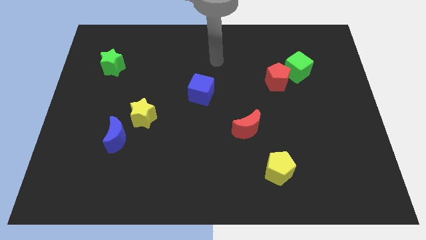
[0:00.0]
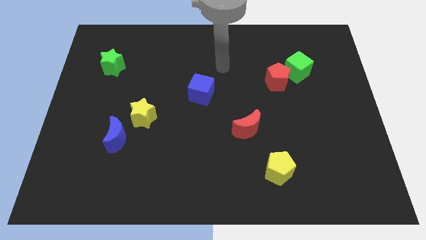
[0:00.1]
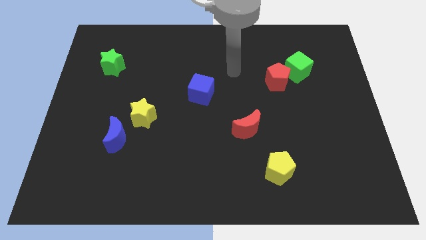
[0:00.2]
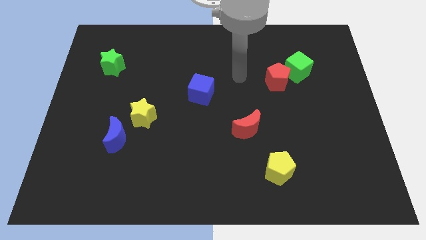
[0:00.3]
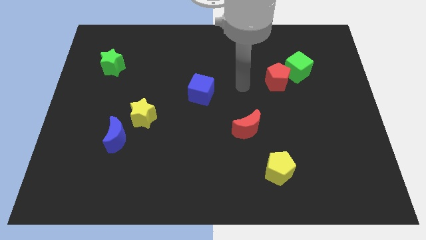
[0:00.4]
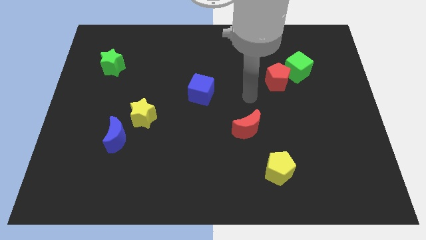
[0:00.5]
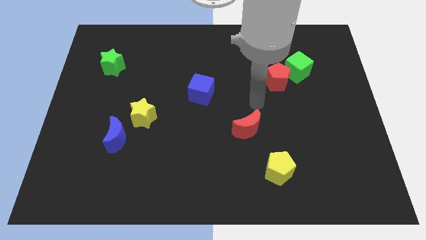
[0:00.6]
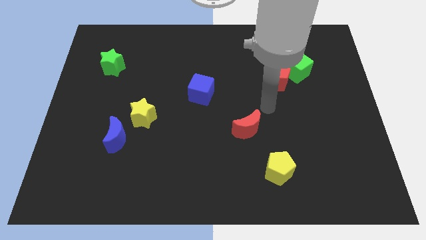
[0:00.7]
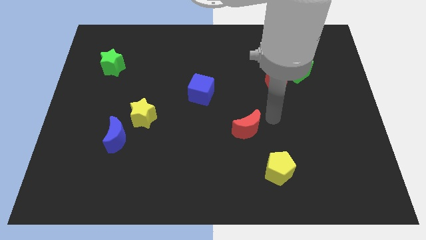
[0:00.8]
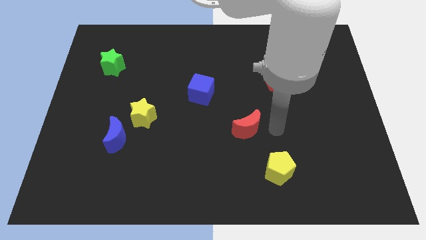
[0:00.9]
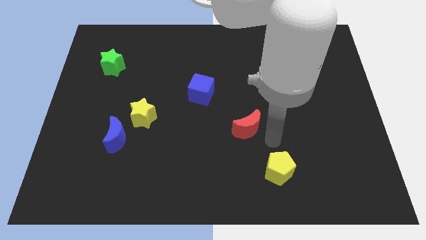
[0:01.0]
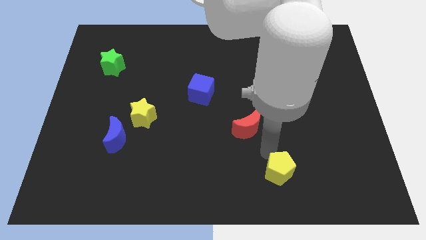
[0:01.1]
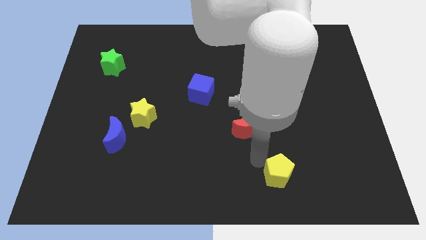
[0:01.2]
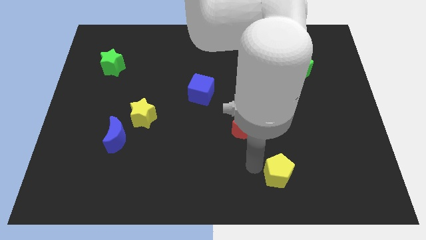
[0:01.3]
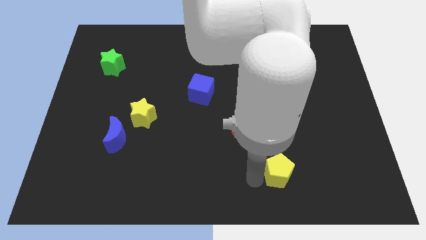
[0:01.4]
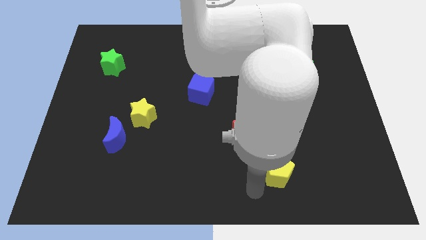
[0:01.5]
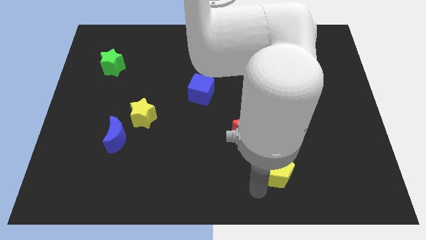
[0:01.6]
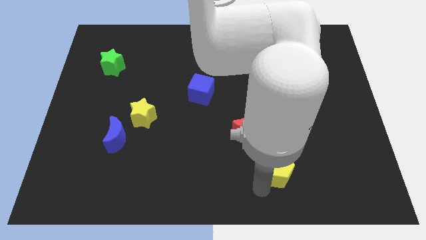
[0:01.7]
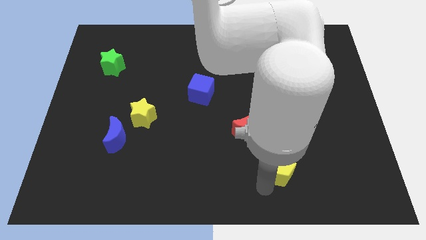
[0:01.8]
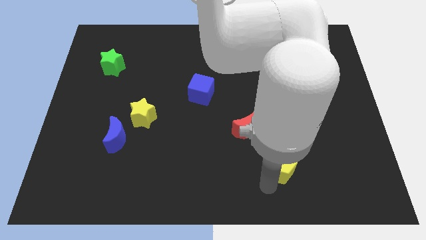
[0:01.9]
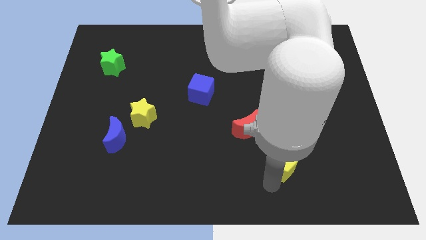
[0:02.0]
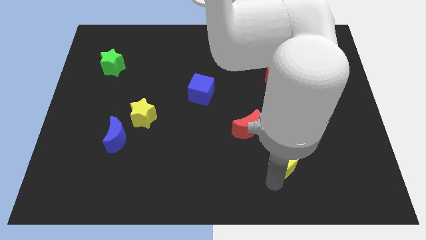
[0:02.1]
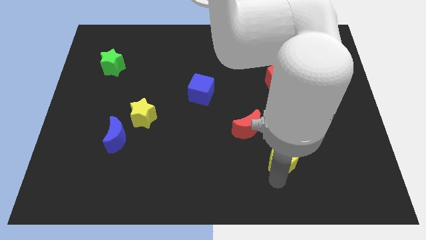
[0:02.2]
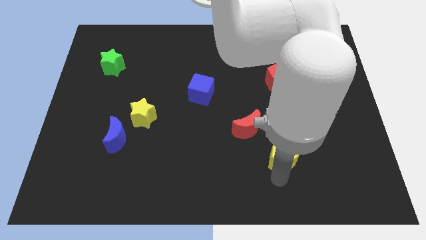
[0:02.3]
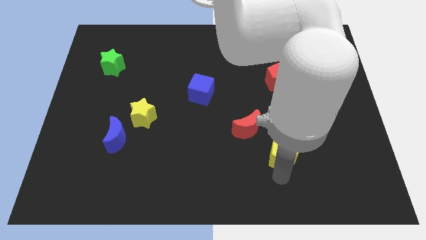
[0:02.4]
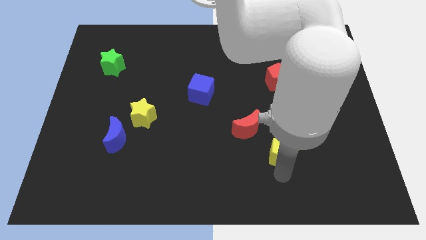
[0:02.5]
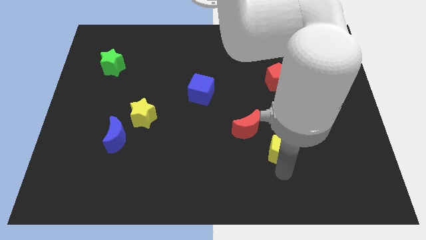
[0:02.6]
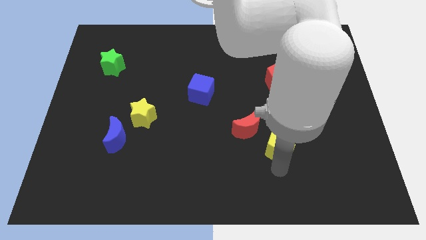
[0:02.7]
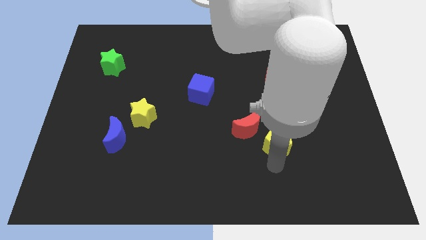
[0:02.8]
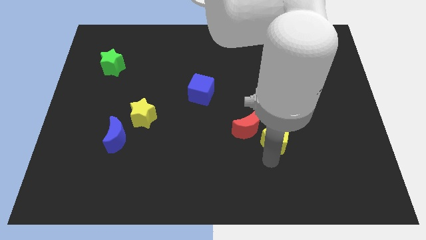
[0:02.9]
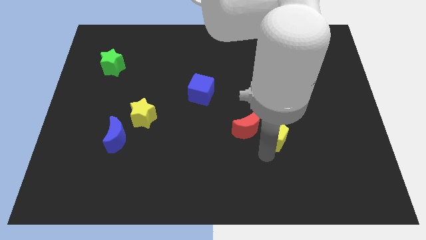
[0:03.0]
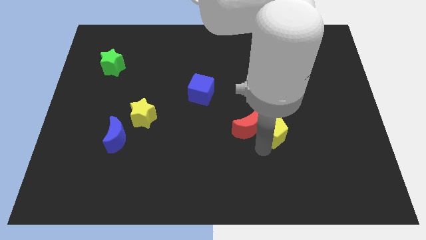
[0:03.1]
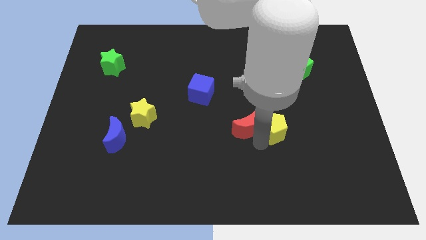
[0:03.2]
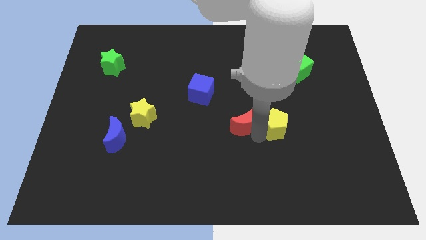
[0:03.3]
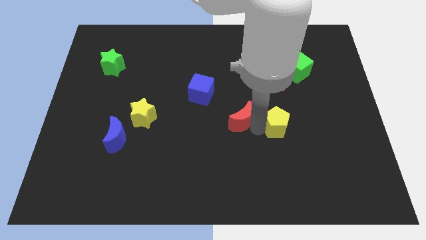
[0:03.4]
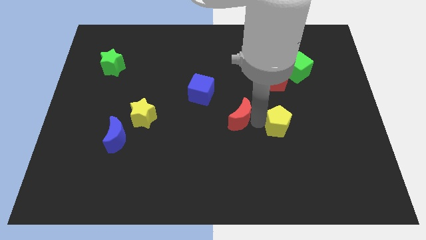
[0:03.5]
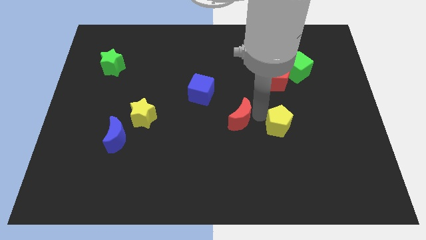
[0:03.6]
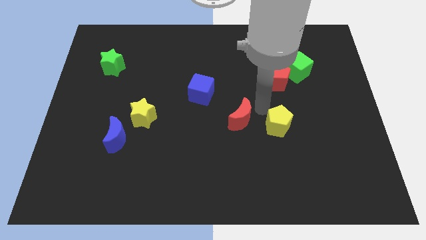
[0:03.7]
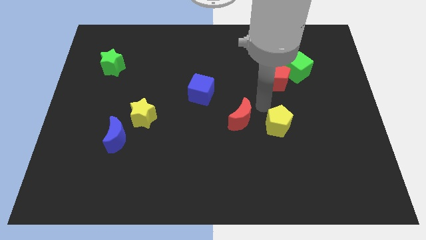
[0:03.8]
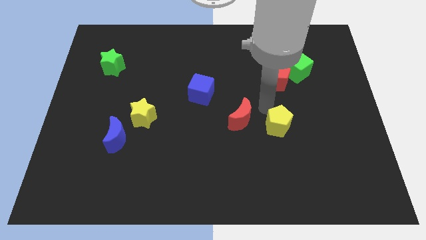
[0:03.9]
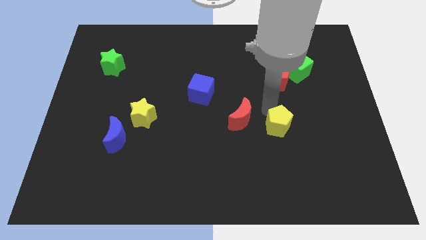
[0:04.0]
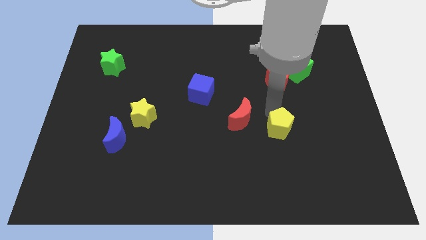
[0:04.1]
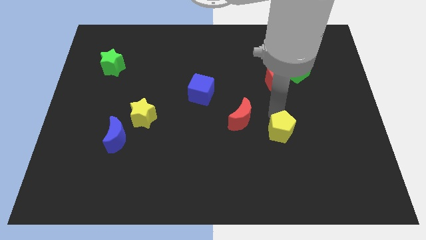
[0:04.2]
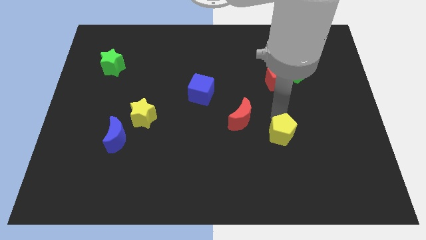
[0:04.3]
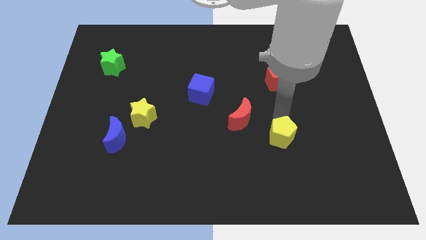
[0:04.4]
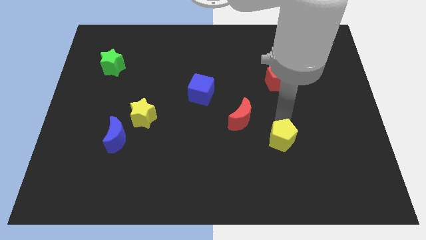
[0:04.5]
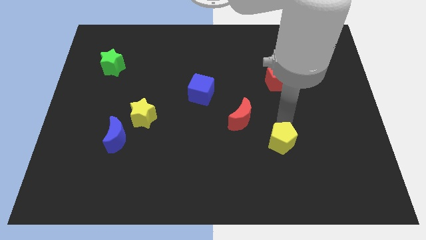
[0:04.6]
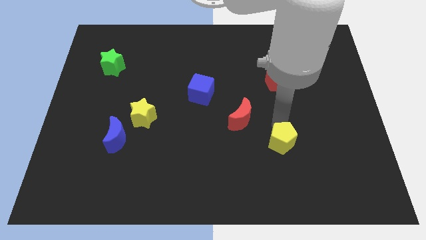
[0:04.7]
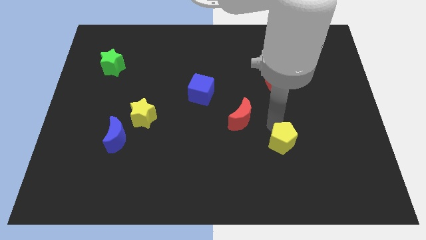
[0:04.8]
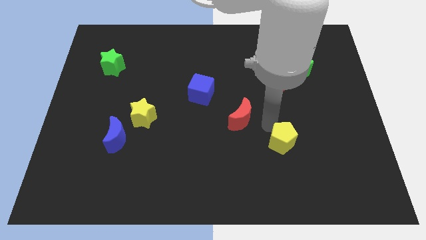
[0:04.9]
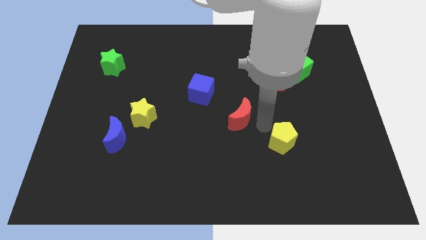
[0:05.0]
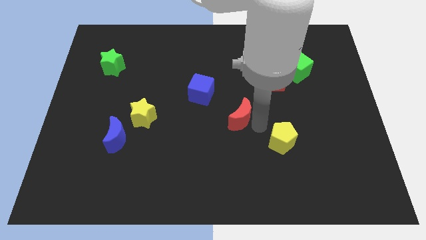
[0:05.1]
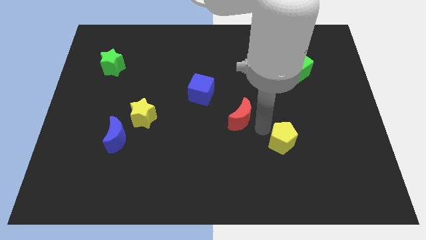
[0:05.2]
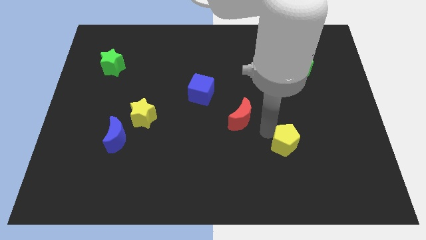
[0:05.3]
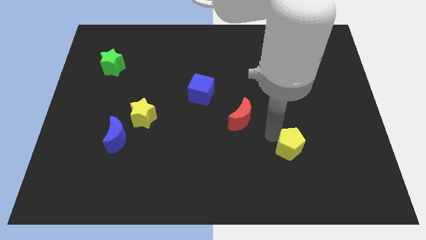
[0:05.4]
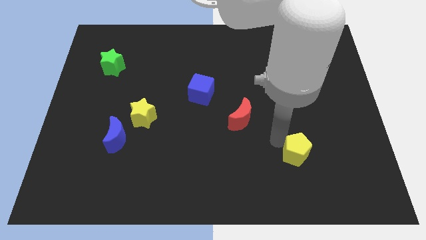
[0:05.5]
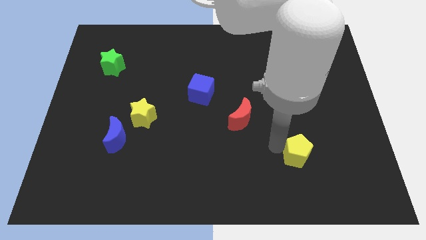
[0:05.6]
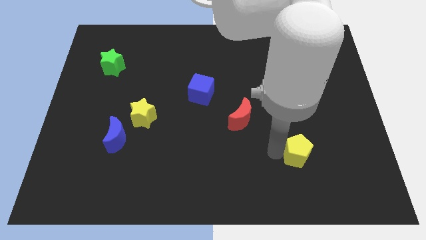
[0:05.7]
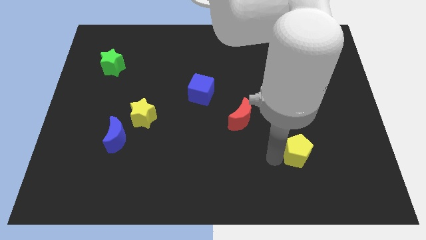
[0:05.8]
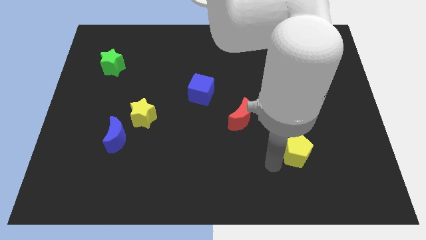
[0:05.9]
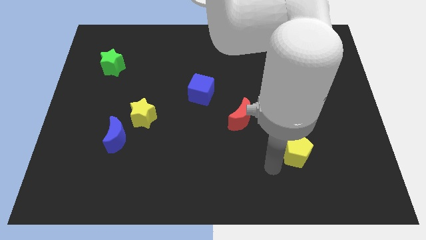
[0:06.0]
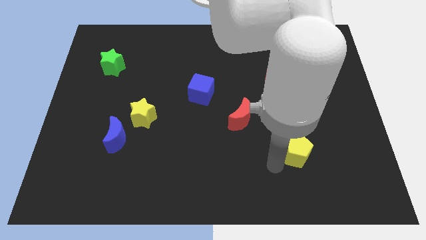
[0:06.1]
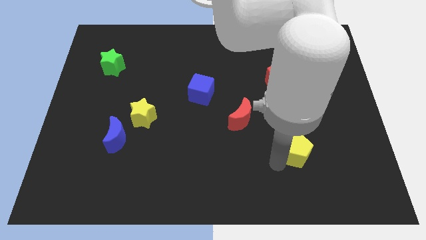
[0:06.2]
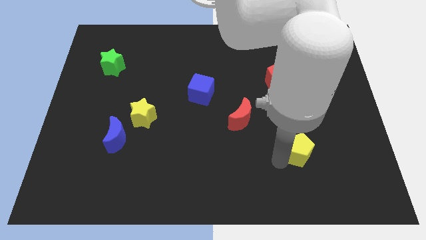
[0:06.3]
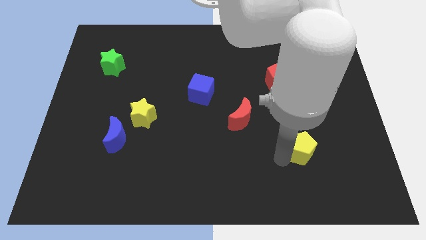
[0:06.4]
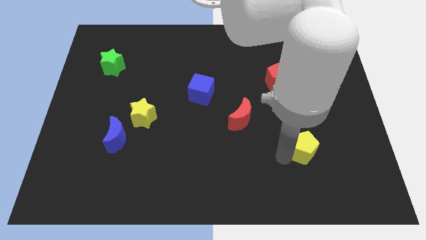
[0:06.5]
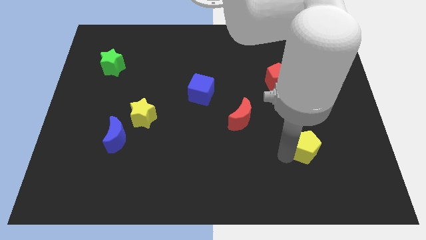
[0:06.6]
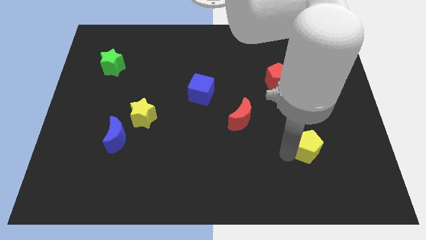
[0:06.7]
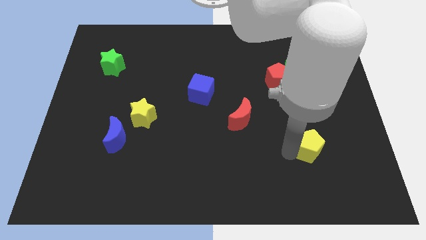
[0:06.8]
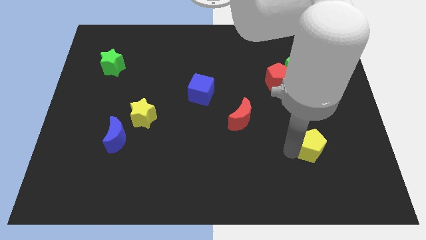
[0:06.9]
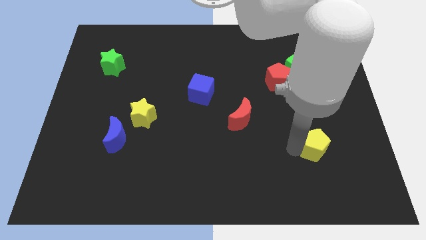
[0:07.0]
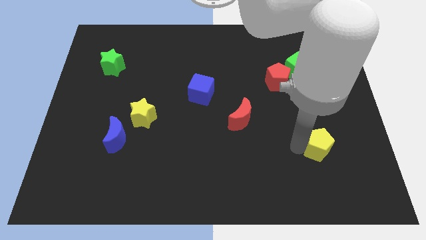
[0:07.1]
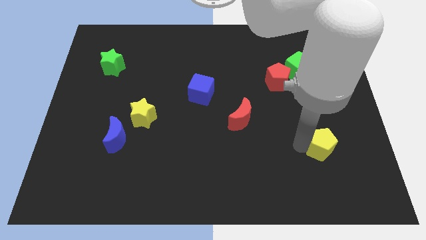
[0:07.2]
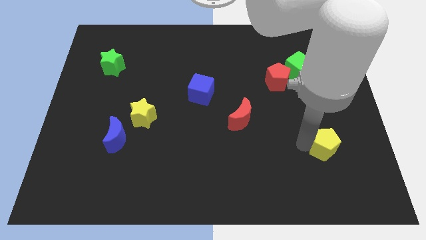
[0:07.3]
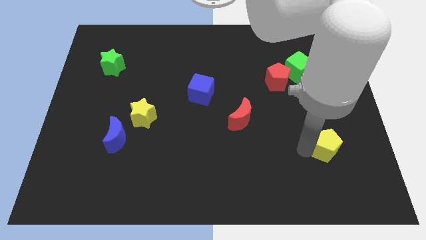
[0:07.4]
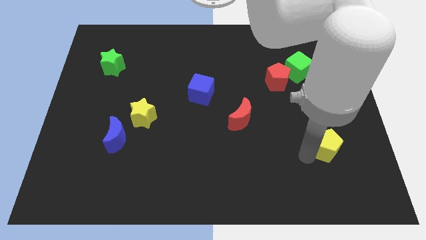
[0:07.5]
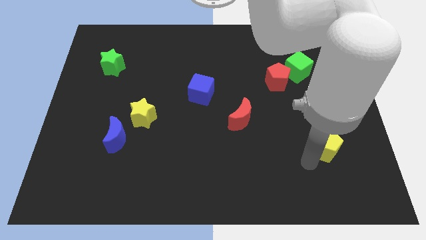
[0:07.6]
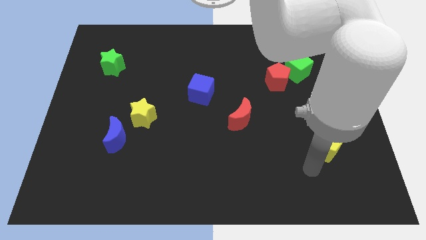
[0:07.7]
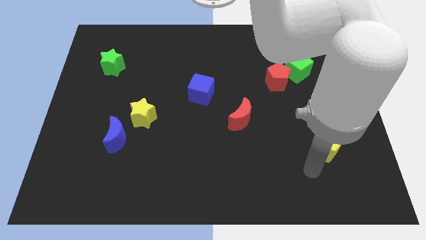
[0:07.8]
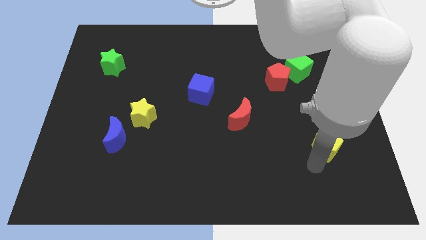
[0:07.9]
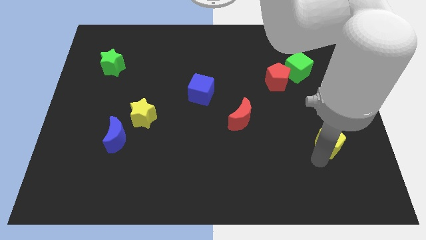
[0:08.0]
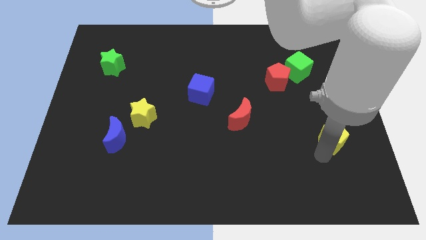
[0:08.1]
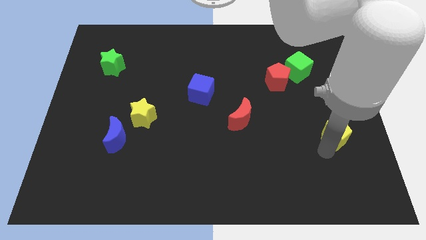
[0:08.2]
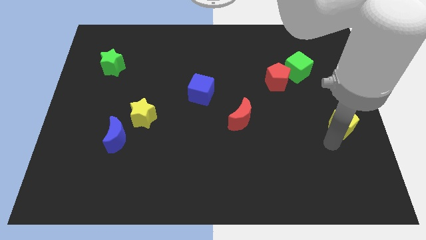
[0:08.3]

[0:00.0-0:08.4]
move the yellow pentagon to the right side
